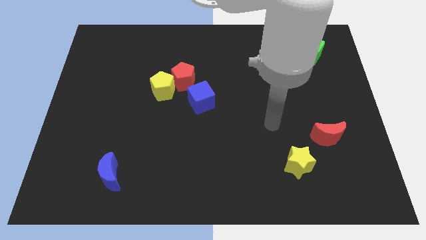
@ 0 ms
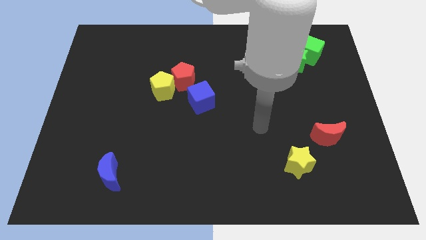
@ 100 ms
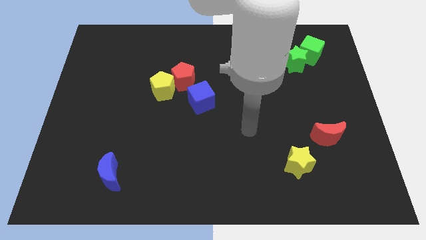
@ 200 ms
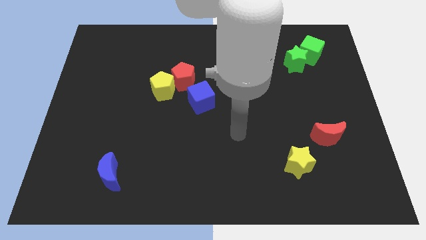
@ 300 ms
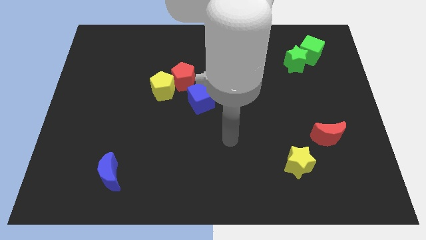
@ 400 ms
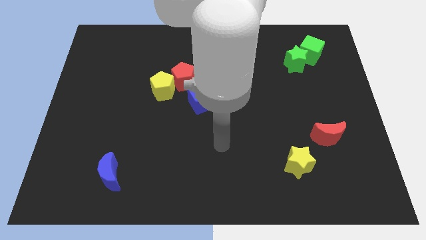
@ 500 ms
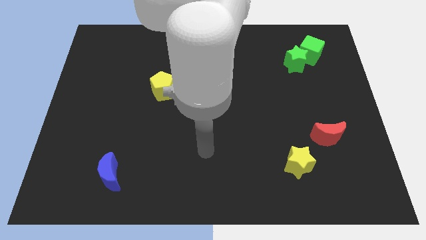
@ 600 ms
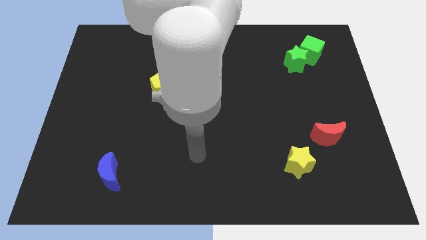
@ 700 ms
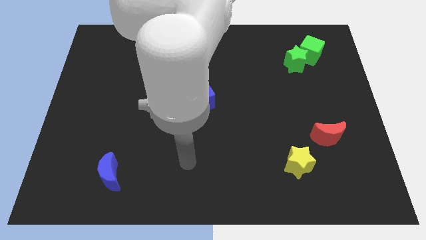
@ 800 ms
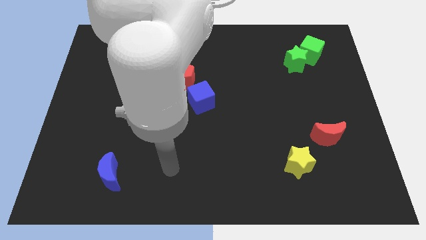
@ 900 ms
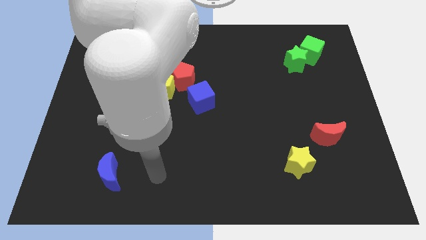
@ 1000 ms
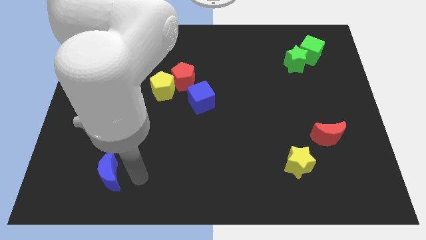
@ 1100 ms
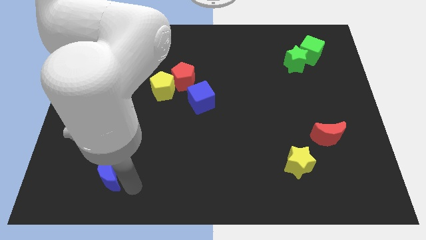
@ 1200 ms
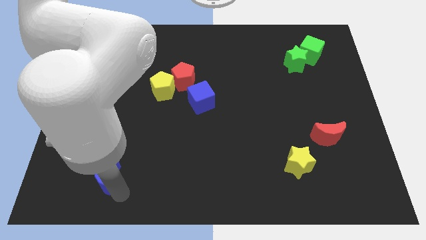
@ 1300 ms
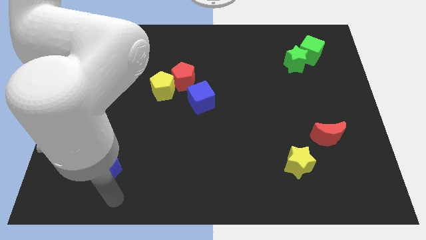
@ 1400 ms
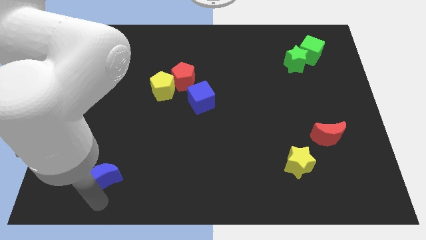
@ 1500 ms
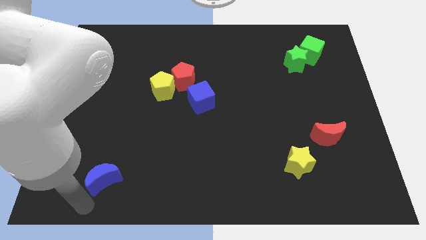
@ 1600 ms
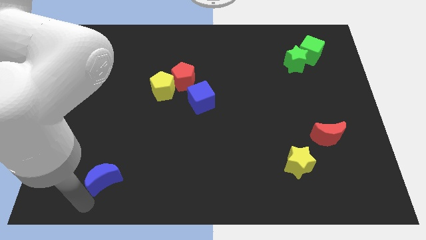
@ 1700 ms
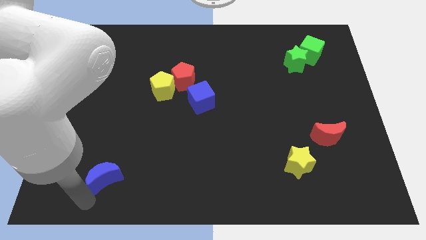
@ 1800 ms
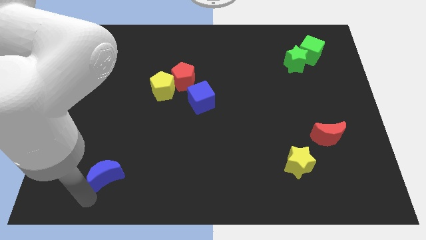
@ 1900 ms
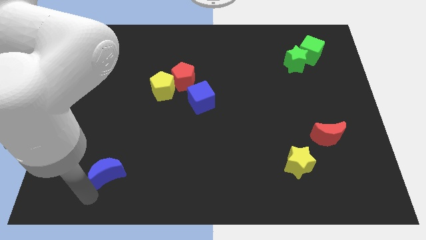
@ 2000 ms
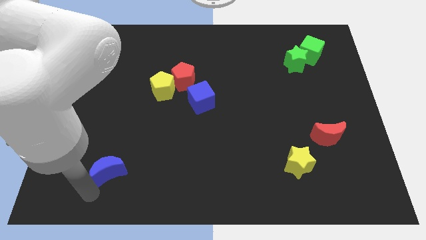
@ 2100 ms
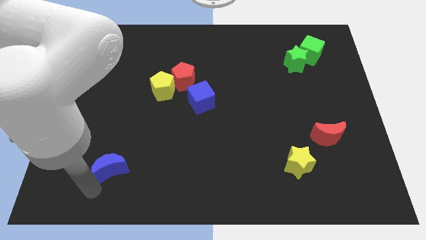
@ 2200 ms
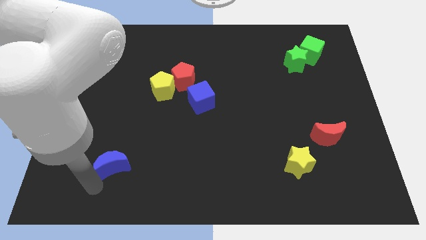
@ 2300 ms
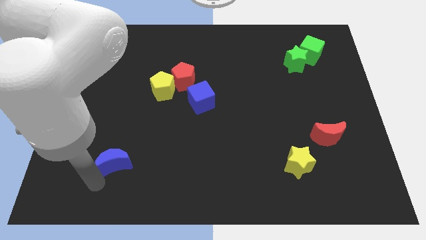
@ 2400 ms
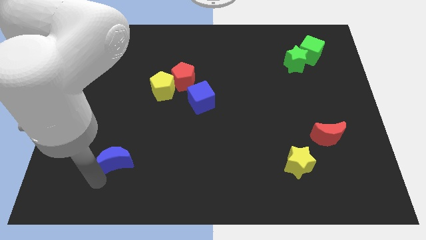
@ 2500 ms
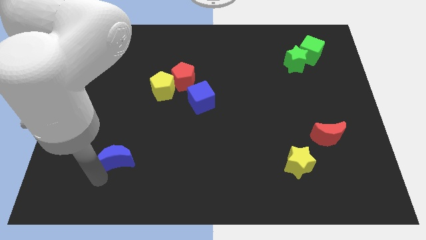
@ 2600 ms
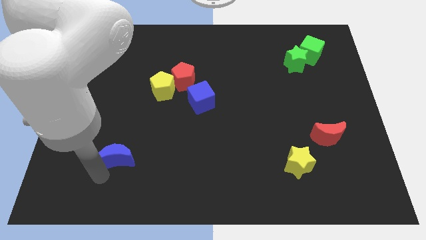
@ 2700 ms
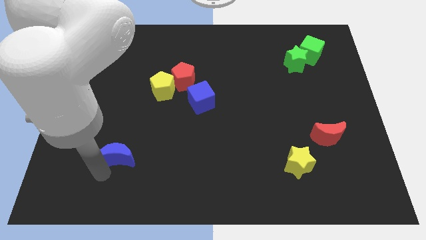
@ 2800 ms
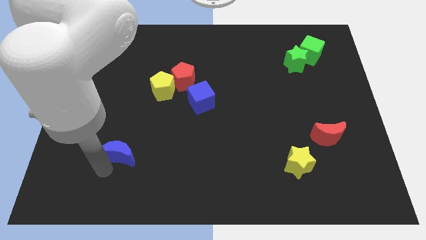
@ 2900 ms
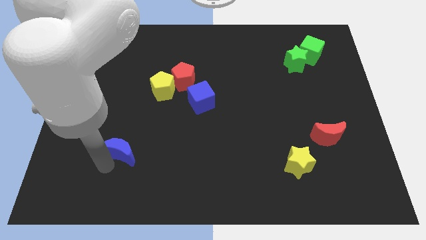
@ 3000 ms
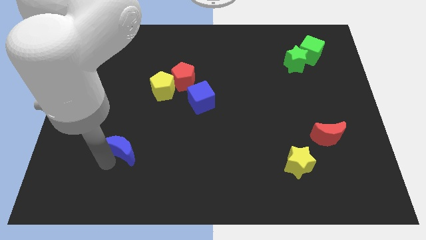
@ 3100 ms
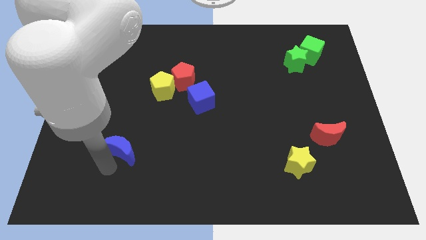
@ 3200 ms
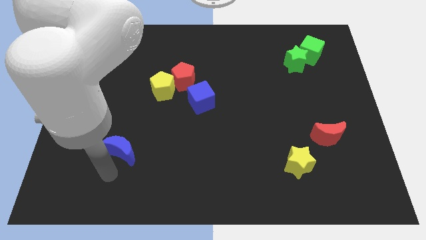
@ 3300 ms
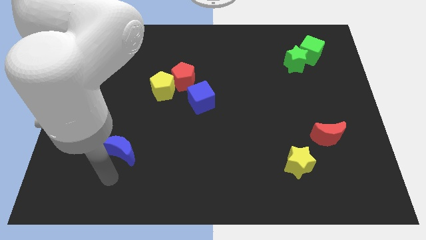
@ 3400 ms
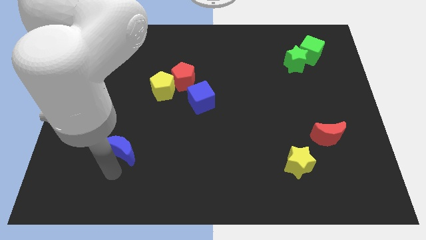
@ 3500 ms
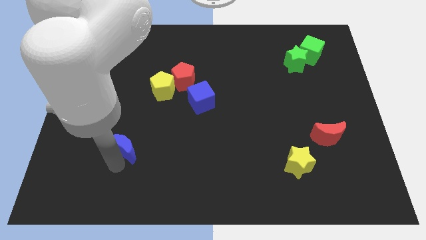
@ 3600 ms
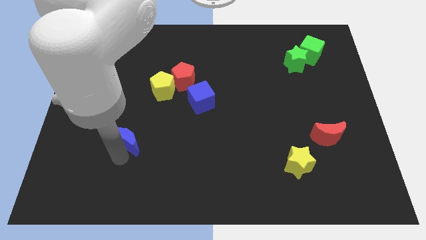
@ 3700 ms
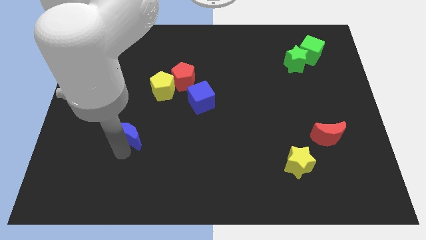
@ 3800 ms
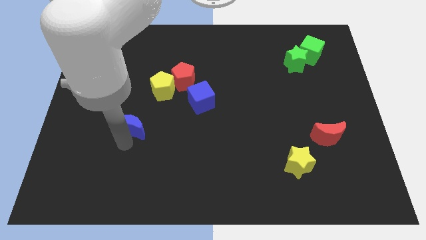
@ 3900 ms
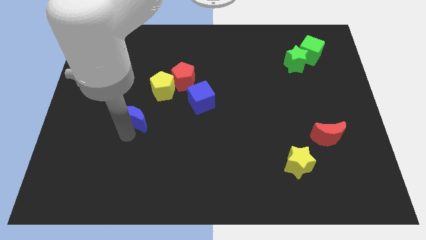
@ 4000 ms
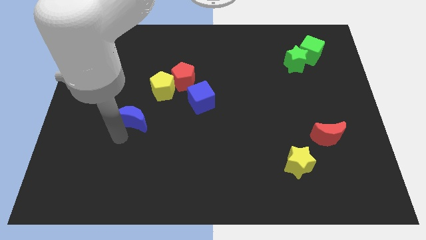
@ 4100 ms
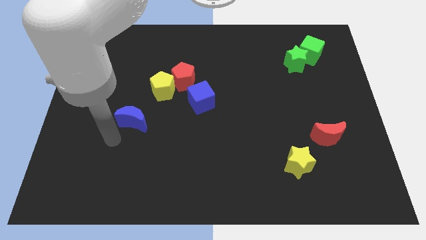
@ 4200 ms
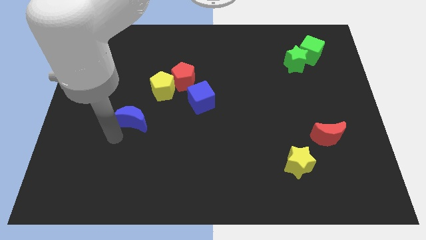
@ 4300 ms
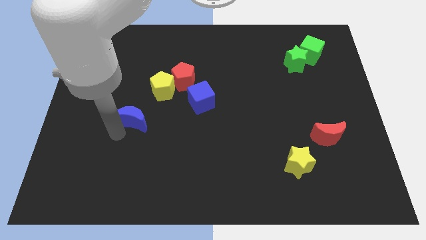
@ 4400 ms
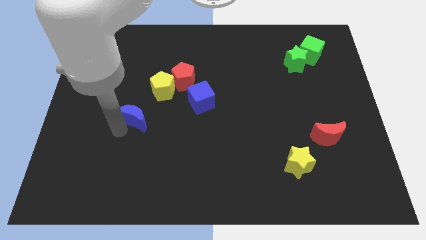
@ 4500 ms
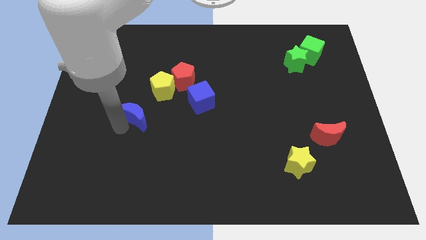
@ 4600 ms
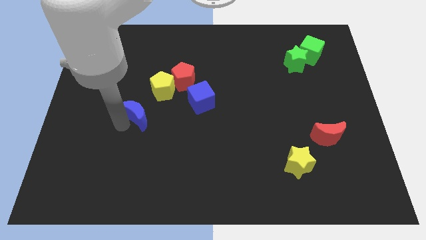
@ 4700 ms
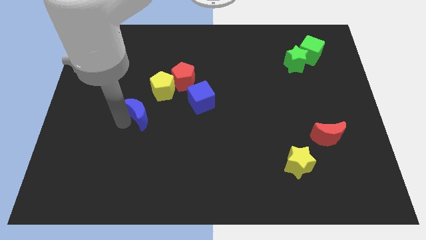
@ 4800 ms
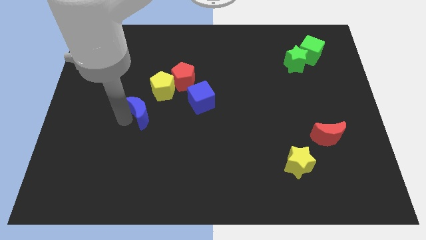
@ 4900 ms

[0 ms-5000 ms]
push the blue moon left of the blue cube

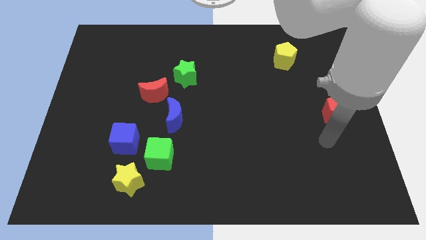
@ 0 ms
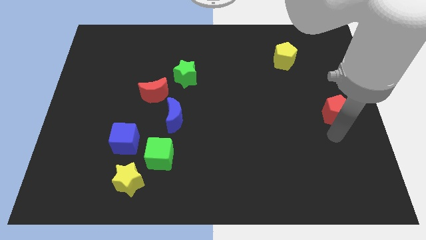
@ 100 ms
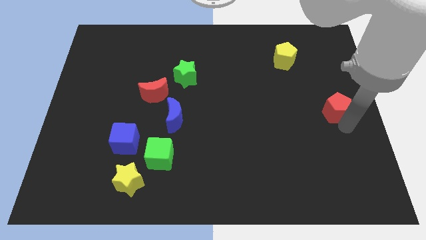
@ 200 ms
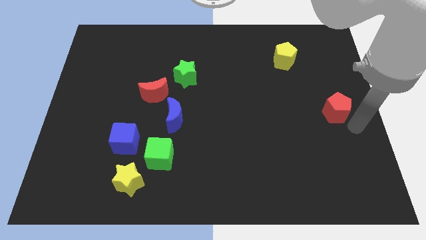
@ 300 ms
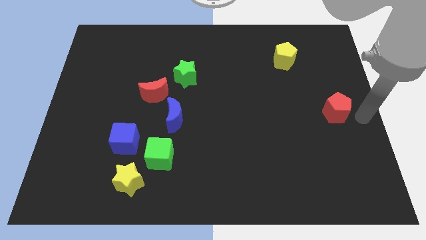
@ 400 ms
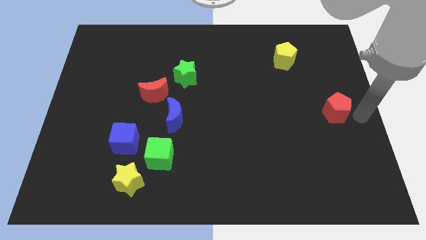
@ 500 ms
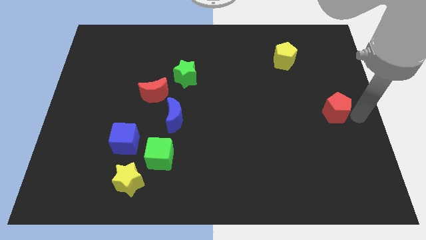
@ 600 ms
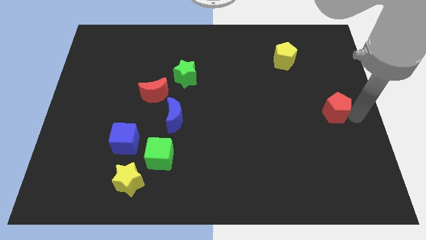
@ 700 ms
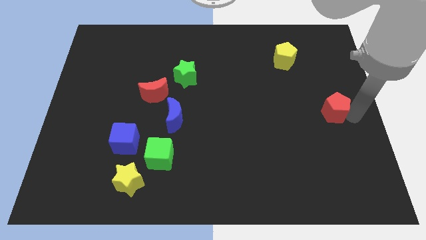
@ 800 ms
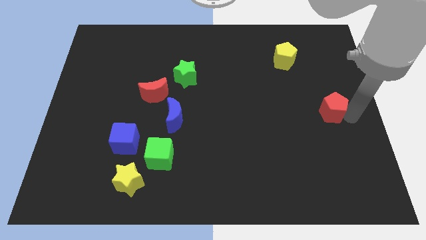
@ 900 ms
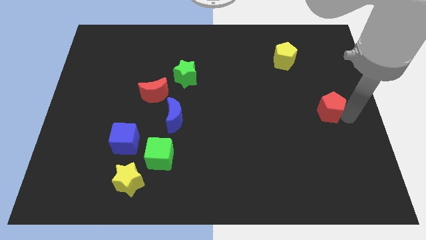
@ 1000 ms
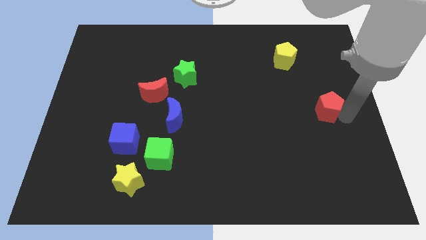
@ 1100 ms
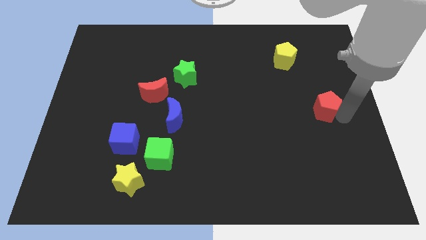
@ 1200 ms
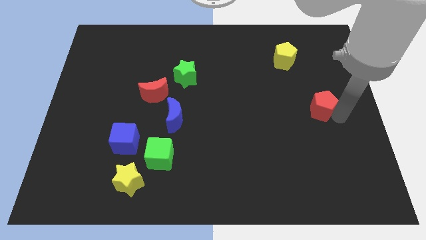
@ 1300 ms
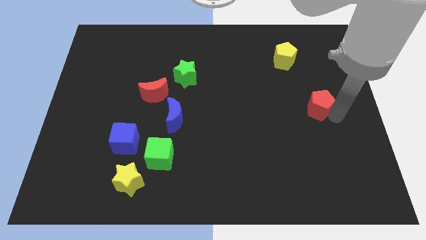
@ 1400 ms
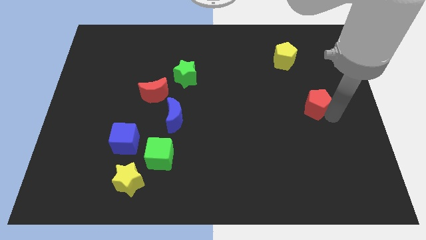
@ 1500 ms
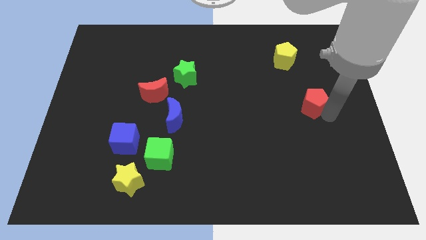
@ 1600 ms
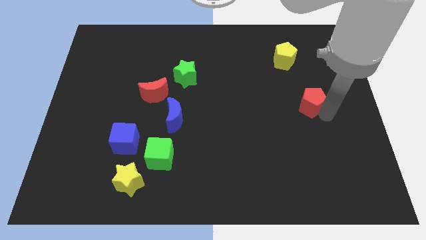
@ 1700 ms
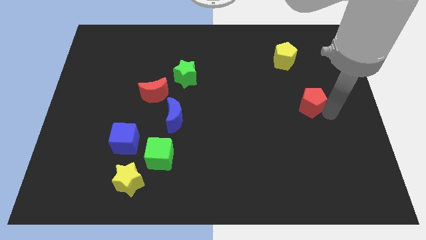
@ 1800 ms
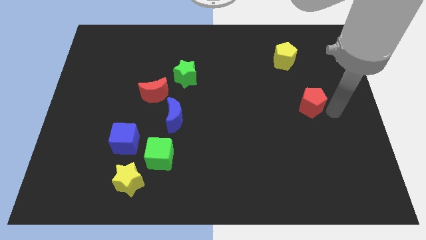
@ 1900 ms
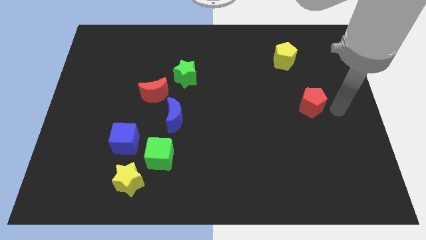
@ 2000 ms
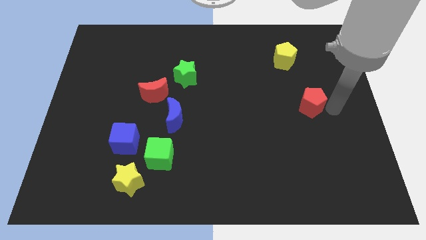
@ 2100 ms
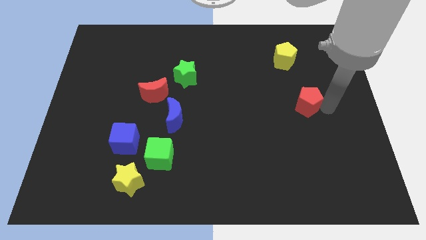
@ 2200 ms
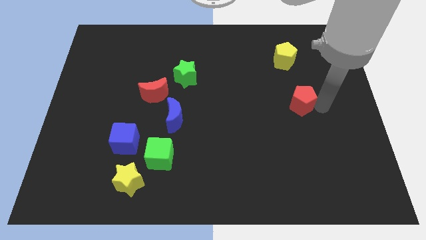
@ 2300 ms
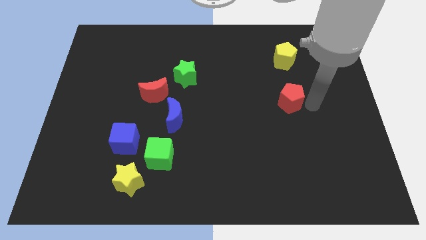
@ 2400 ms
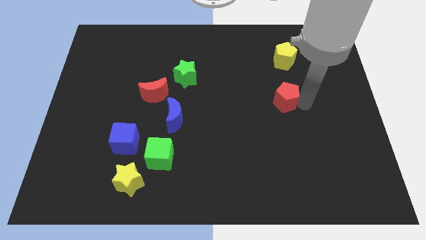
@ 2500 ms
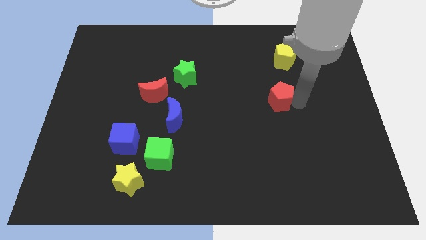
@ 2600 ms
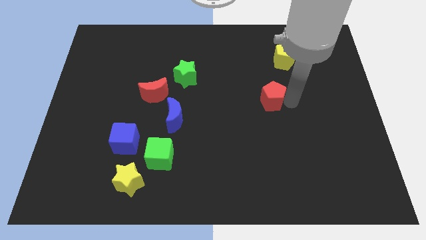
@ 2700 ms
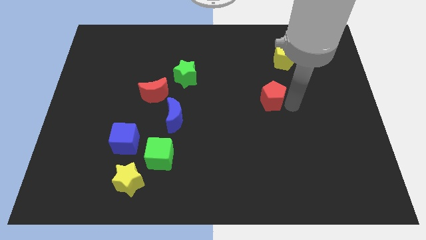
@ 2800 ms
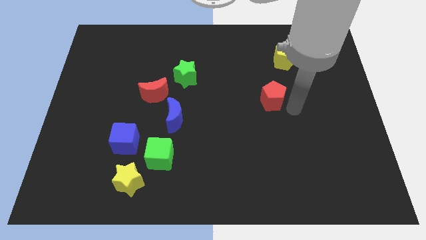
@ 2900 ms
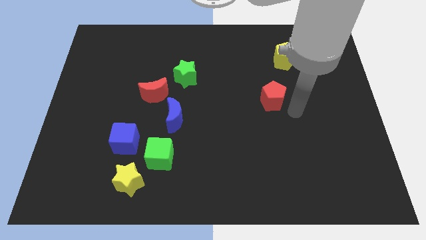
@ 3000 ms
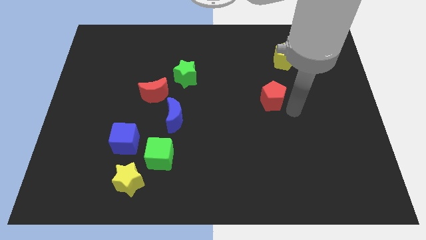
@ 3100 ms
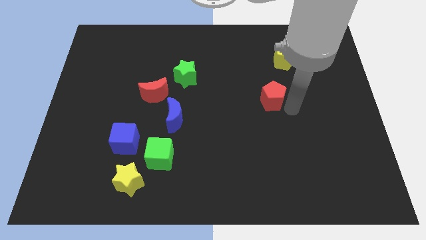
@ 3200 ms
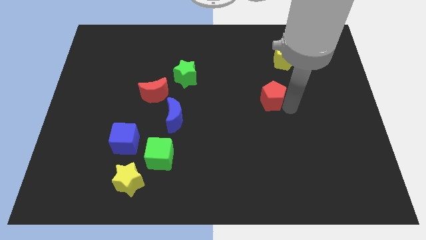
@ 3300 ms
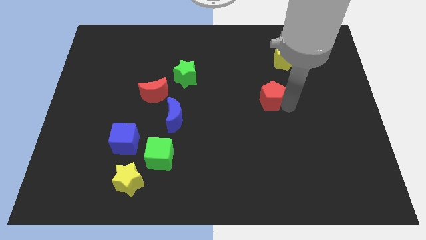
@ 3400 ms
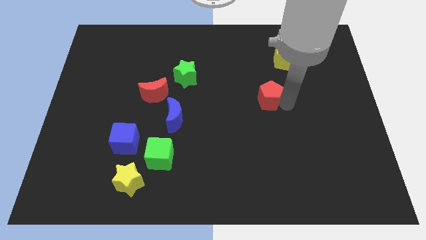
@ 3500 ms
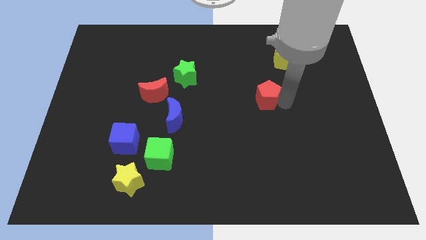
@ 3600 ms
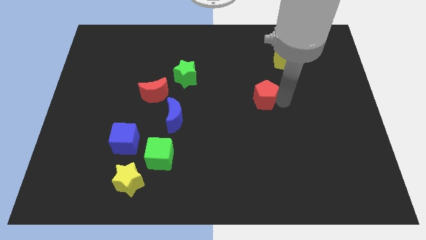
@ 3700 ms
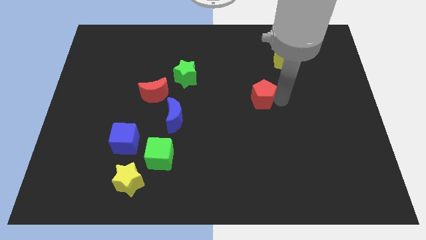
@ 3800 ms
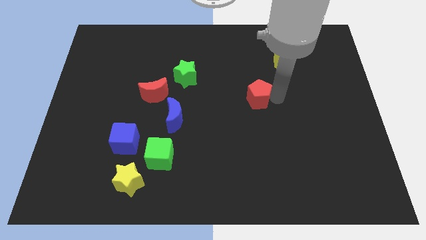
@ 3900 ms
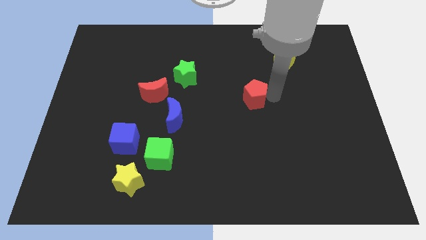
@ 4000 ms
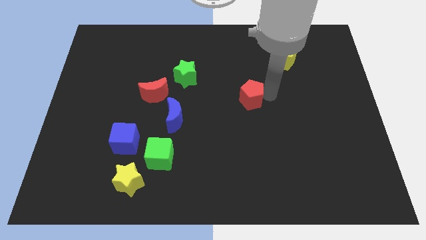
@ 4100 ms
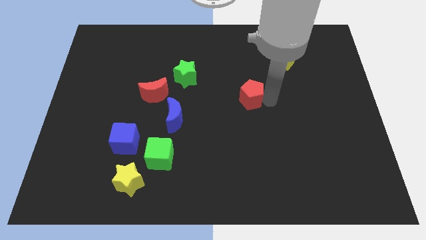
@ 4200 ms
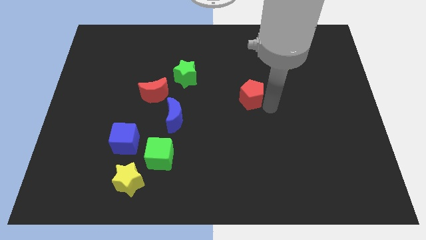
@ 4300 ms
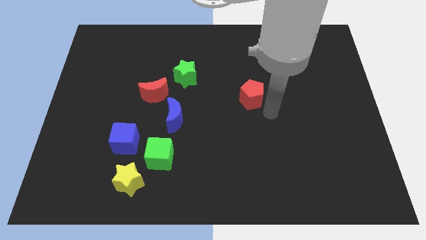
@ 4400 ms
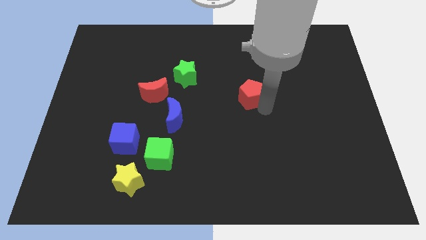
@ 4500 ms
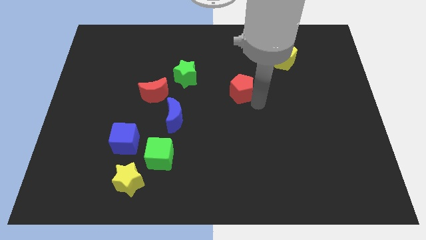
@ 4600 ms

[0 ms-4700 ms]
slide the red pentagon to the right of the green star
